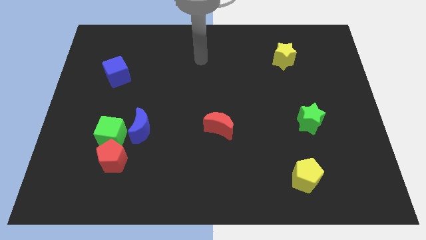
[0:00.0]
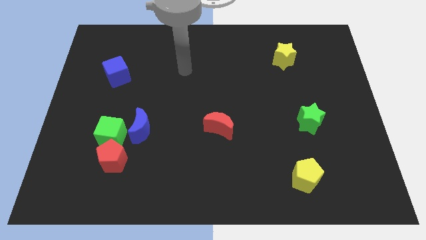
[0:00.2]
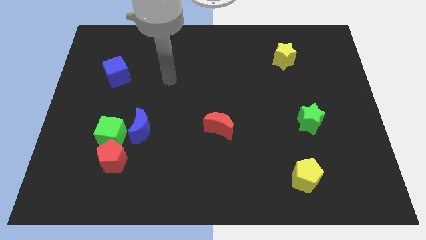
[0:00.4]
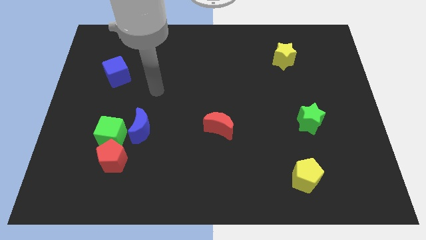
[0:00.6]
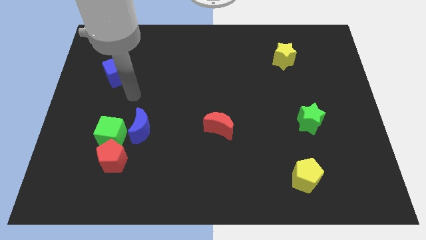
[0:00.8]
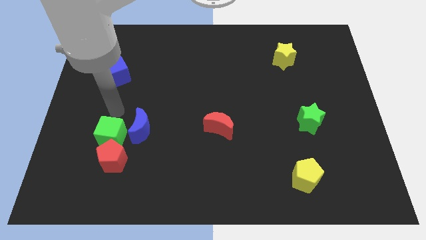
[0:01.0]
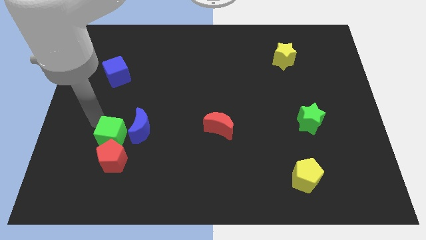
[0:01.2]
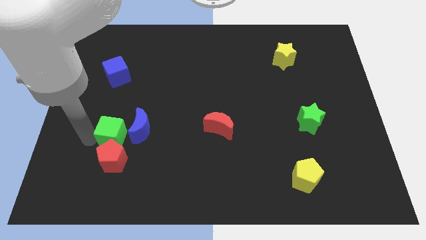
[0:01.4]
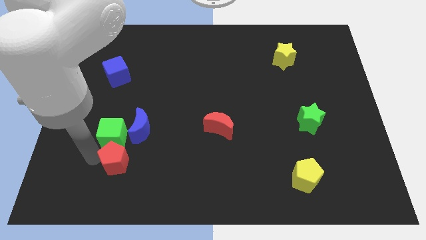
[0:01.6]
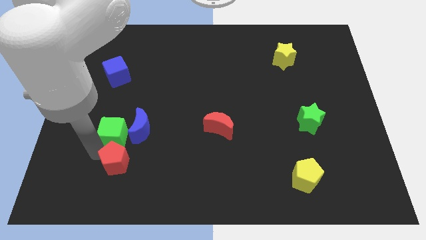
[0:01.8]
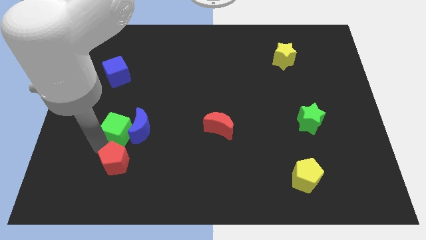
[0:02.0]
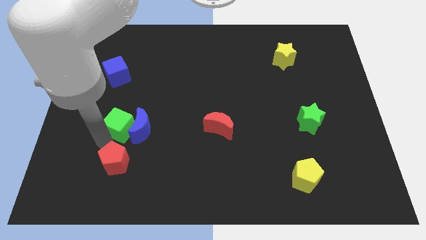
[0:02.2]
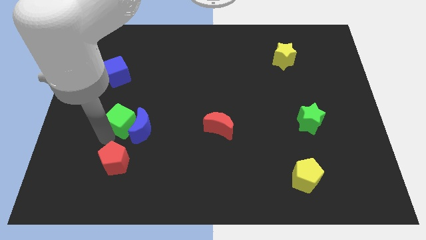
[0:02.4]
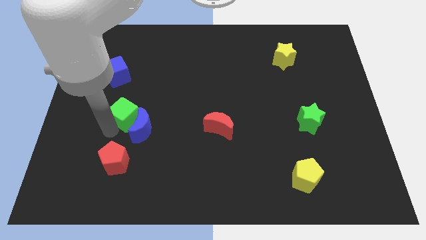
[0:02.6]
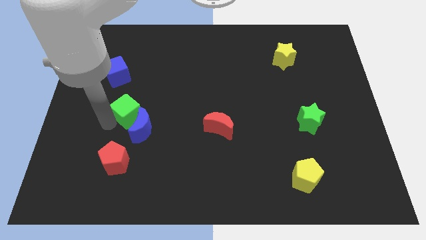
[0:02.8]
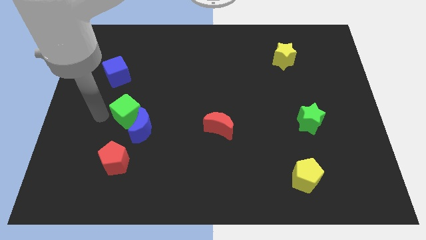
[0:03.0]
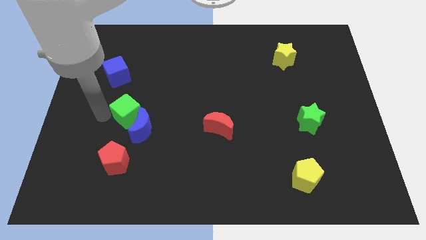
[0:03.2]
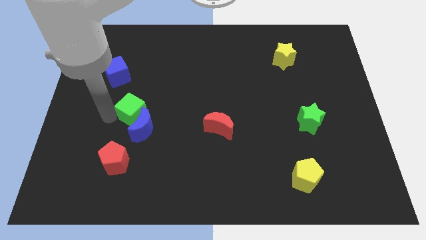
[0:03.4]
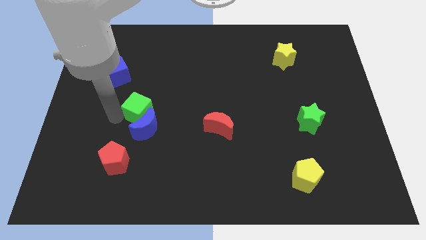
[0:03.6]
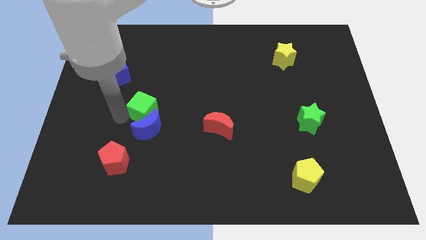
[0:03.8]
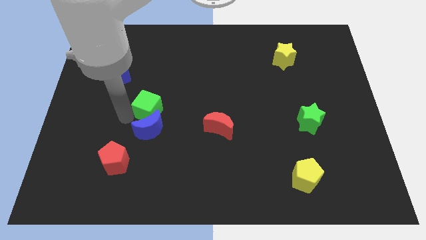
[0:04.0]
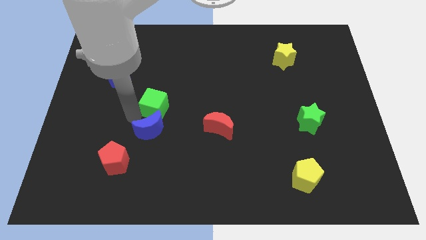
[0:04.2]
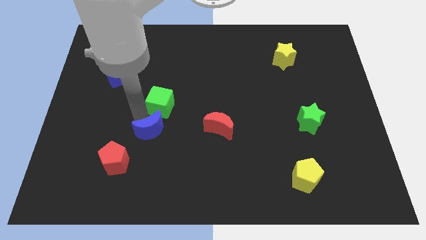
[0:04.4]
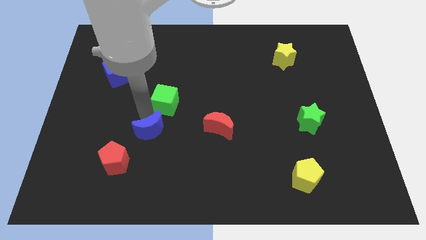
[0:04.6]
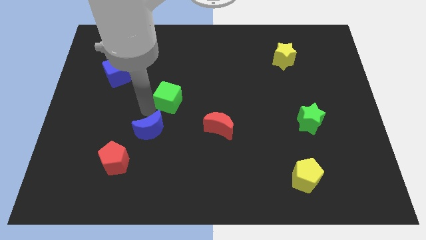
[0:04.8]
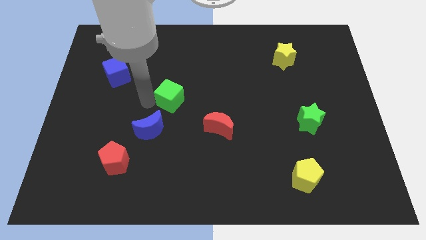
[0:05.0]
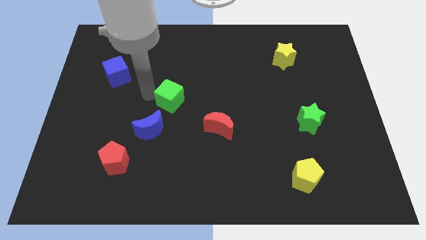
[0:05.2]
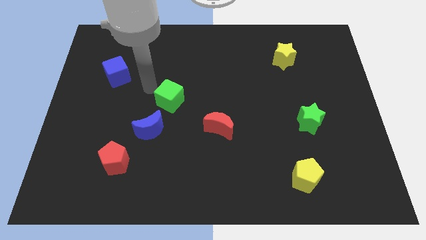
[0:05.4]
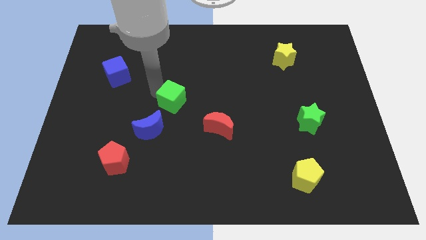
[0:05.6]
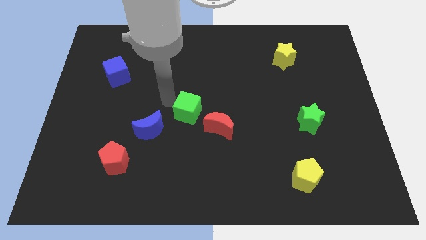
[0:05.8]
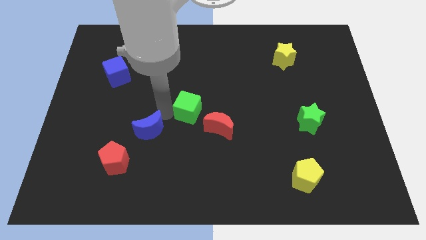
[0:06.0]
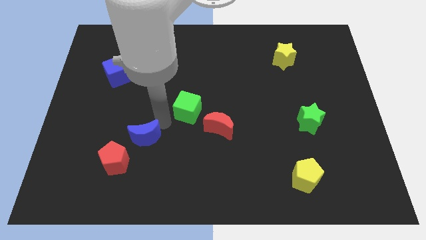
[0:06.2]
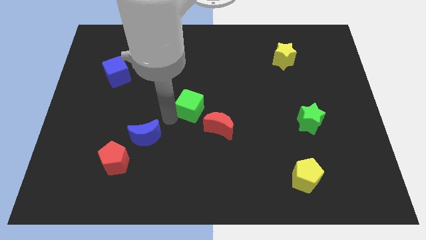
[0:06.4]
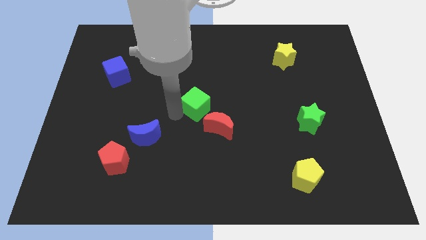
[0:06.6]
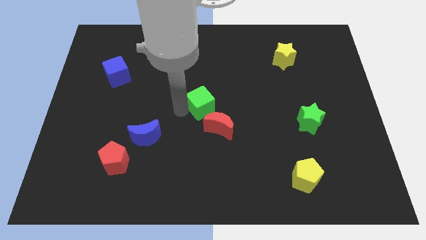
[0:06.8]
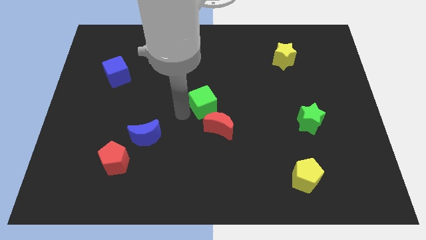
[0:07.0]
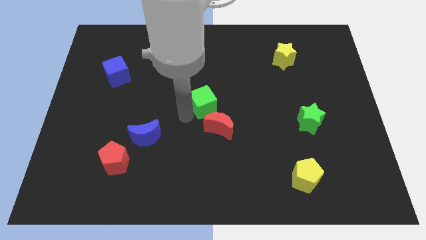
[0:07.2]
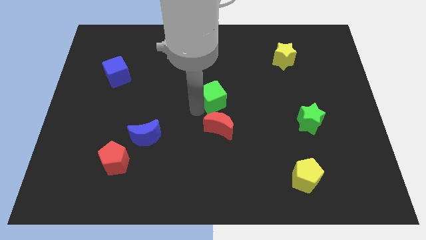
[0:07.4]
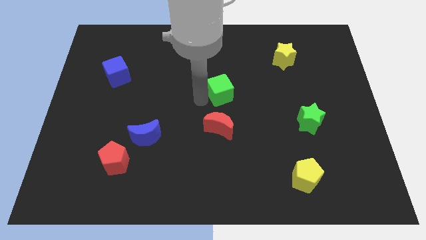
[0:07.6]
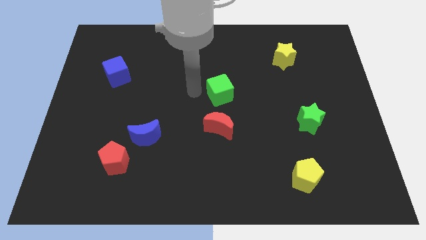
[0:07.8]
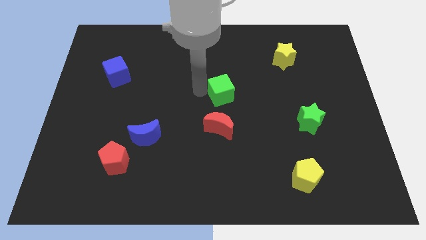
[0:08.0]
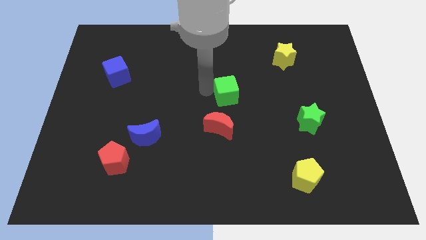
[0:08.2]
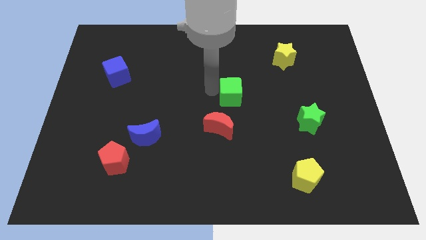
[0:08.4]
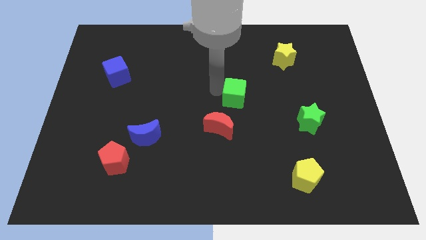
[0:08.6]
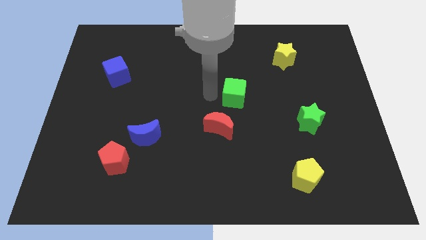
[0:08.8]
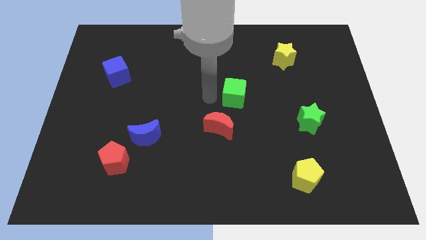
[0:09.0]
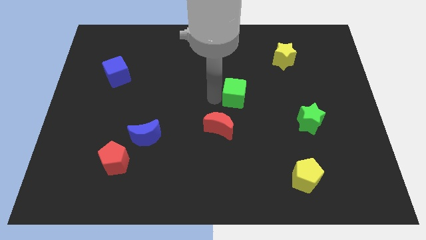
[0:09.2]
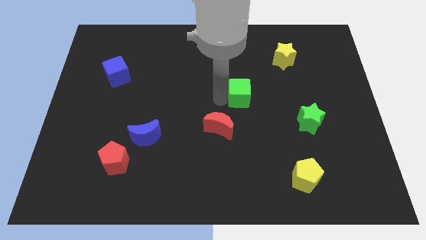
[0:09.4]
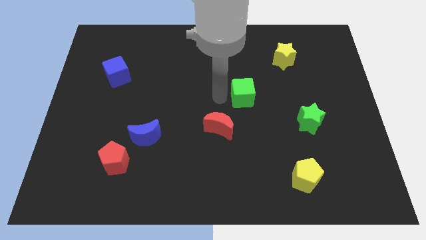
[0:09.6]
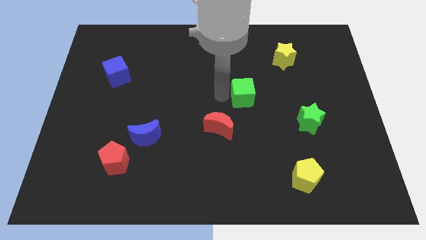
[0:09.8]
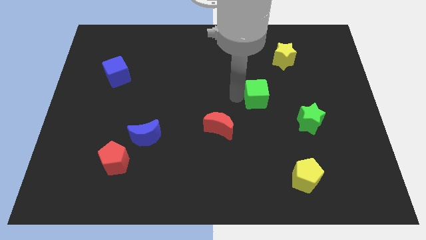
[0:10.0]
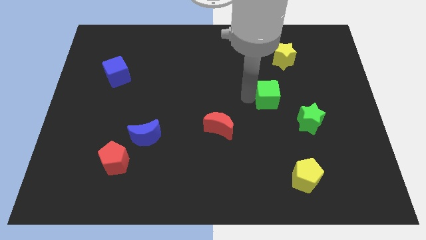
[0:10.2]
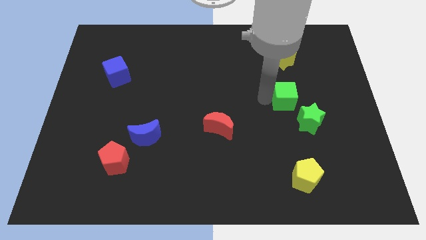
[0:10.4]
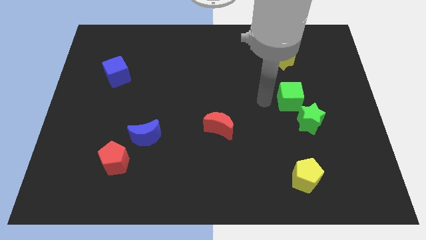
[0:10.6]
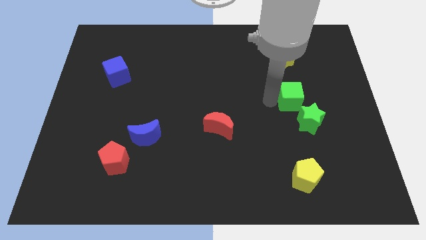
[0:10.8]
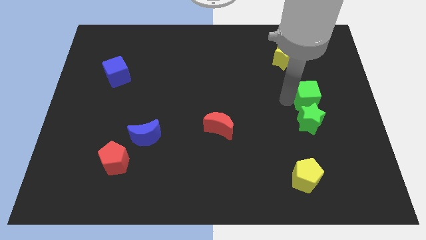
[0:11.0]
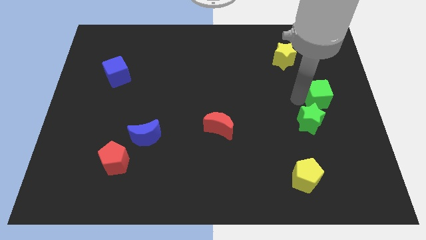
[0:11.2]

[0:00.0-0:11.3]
slide the green cube to the center right
